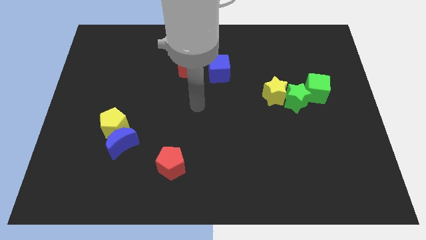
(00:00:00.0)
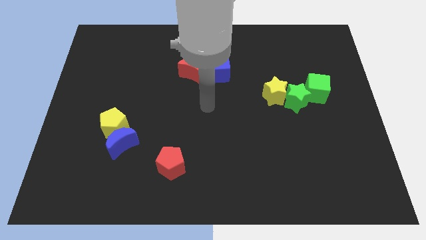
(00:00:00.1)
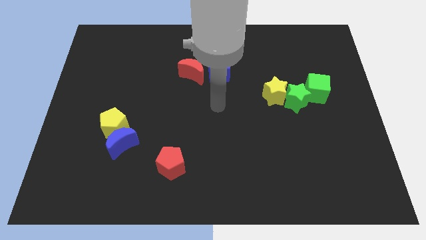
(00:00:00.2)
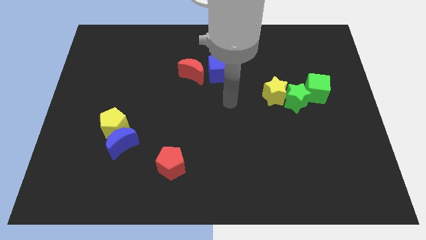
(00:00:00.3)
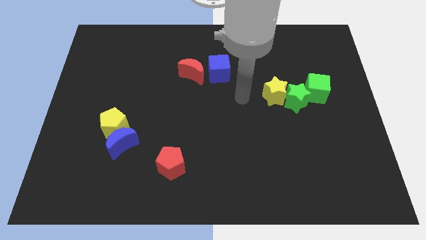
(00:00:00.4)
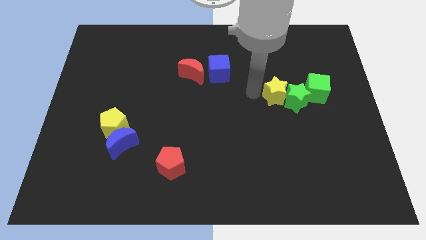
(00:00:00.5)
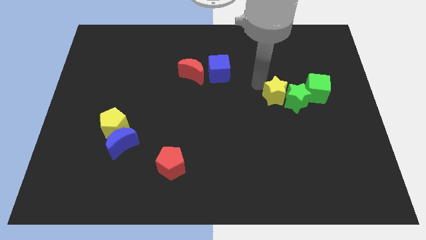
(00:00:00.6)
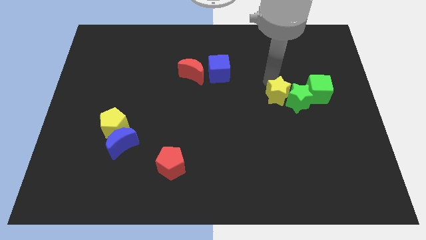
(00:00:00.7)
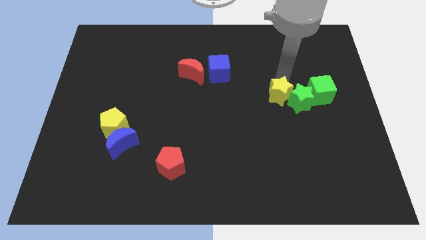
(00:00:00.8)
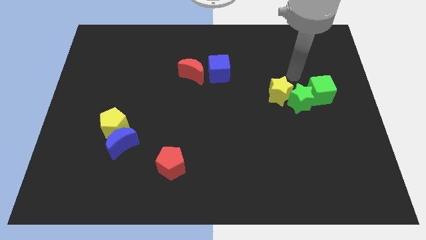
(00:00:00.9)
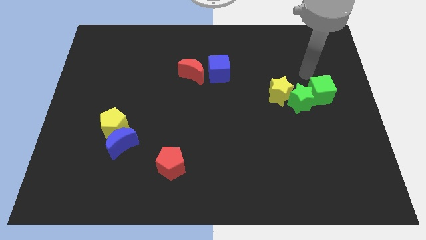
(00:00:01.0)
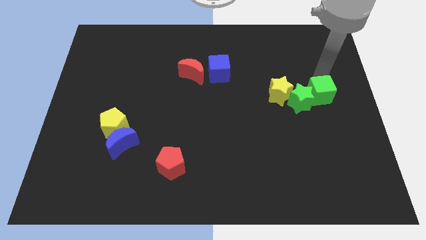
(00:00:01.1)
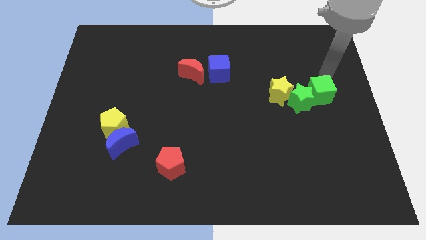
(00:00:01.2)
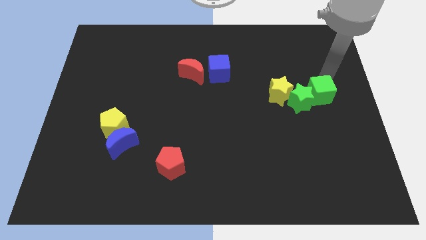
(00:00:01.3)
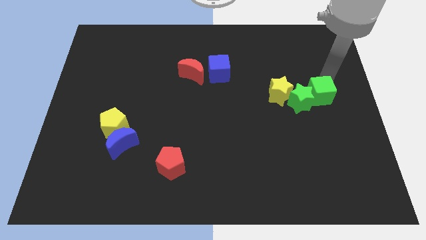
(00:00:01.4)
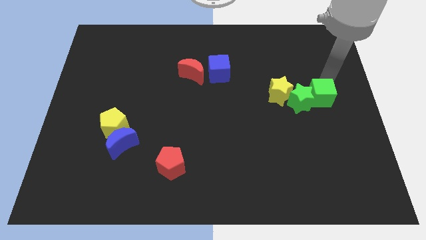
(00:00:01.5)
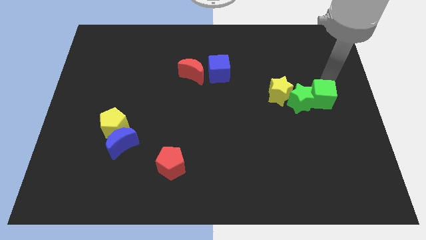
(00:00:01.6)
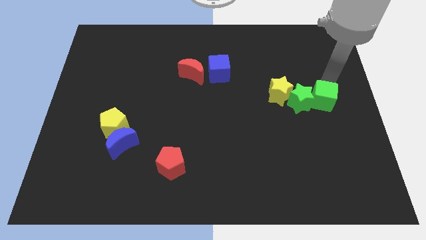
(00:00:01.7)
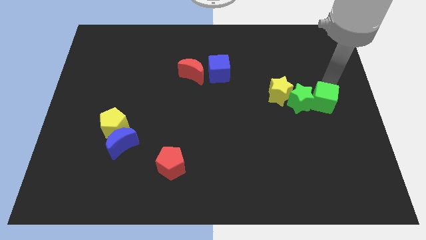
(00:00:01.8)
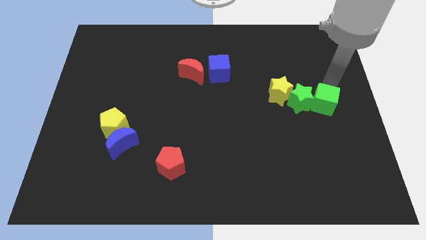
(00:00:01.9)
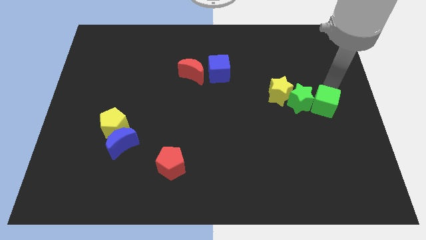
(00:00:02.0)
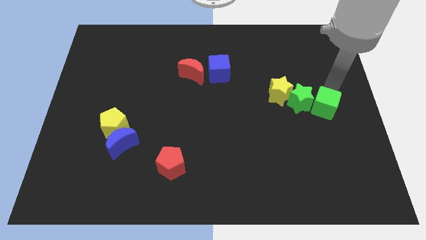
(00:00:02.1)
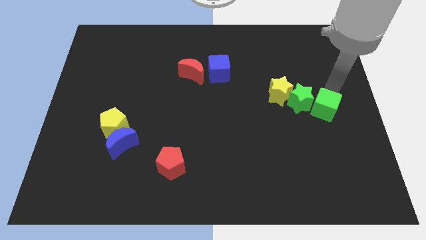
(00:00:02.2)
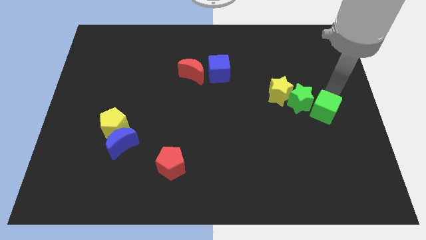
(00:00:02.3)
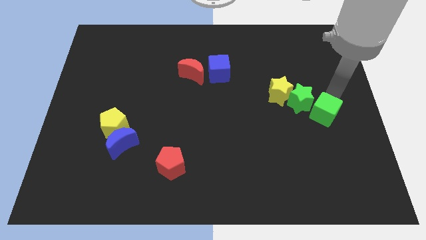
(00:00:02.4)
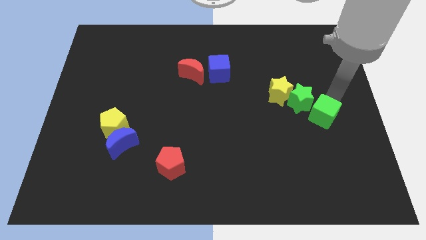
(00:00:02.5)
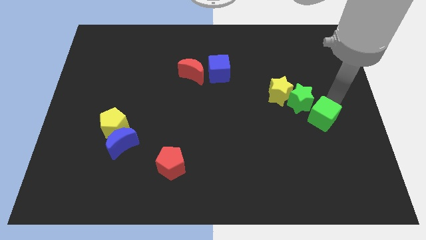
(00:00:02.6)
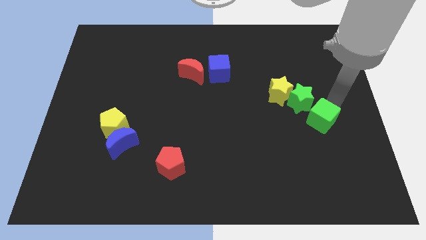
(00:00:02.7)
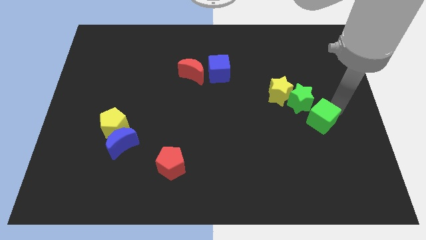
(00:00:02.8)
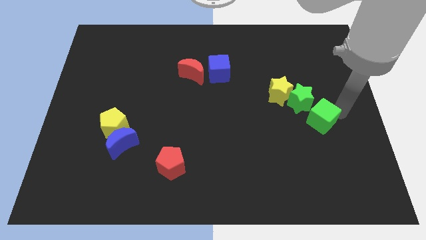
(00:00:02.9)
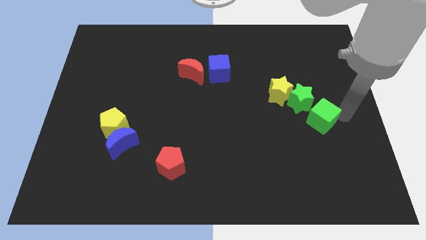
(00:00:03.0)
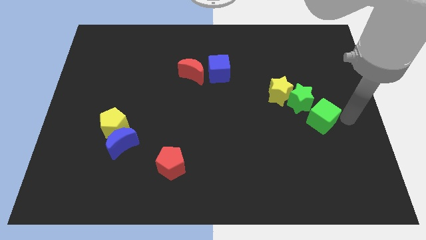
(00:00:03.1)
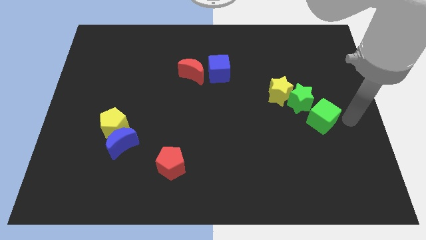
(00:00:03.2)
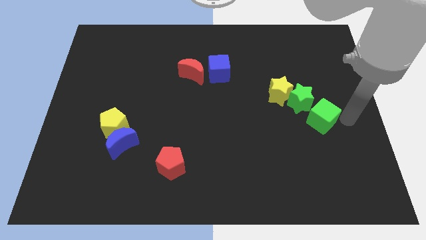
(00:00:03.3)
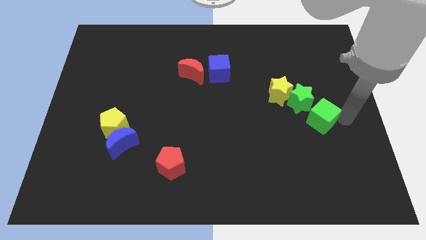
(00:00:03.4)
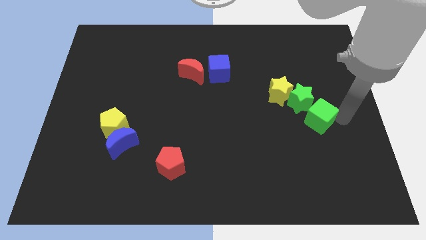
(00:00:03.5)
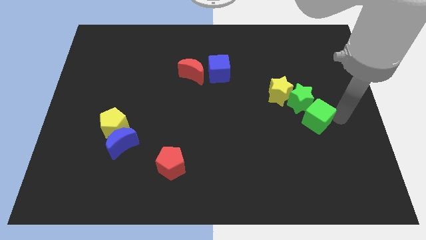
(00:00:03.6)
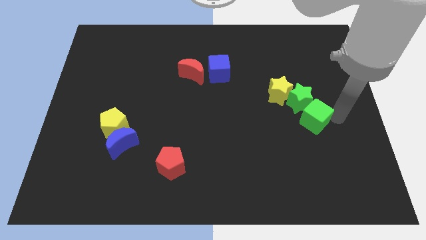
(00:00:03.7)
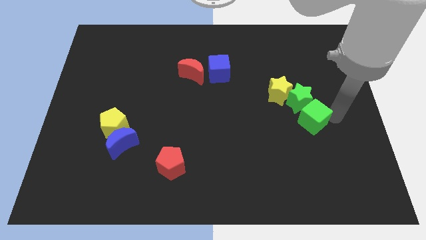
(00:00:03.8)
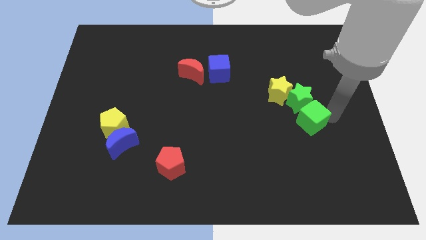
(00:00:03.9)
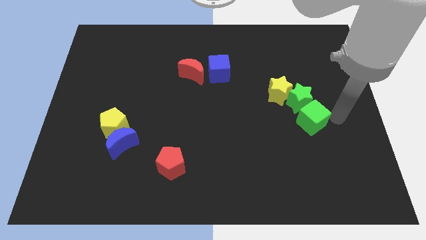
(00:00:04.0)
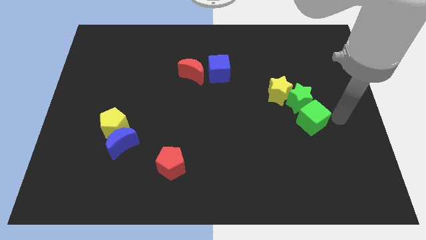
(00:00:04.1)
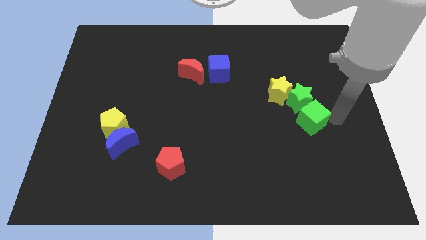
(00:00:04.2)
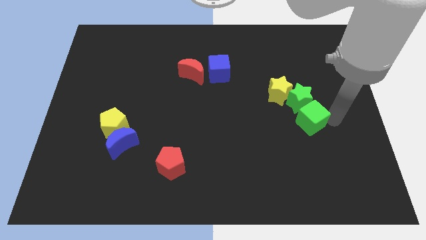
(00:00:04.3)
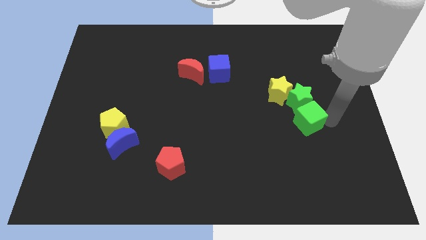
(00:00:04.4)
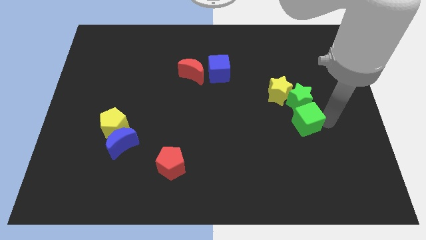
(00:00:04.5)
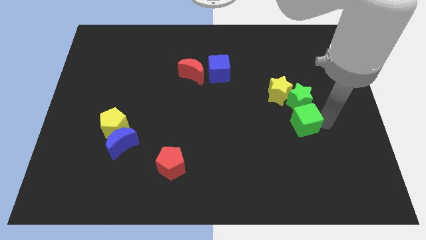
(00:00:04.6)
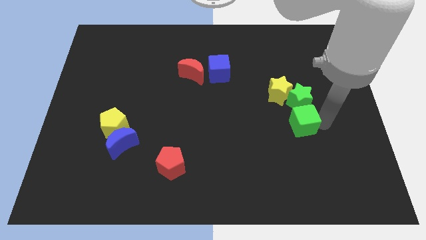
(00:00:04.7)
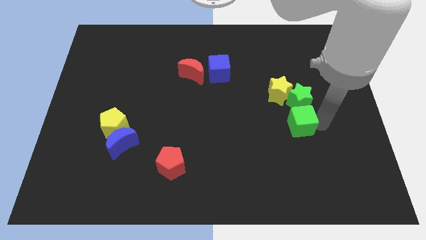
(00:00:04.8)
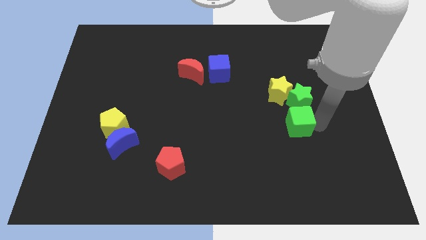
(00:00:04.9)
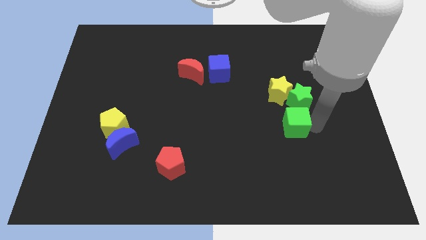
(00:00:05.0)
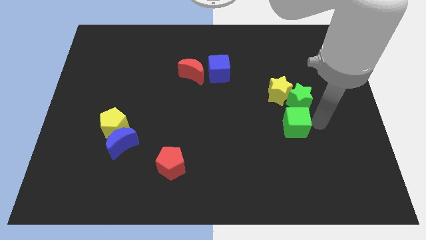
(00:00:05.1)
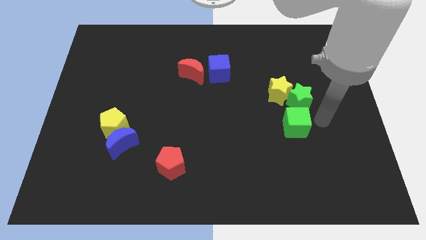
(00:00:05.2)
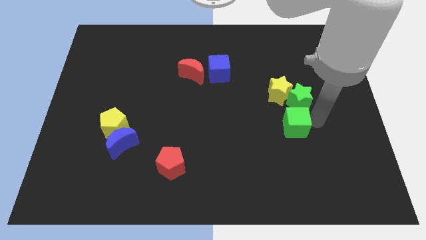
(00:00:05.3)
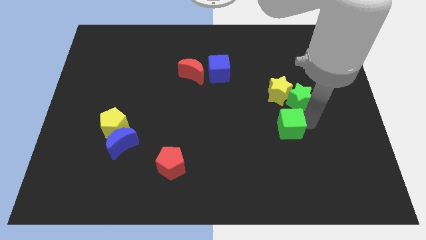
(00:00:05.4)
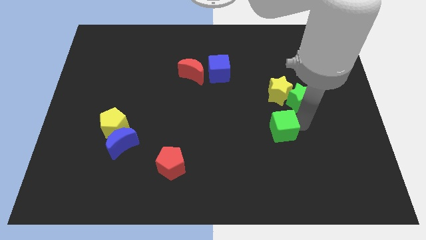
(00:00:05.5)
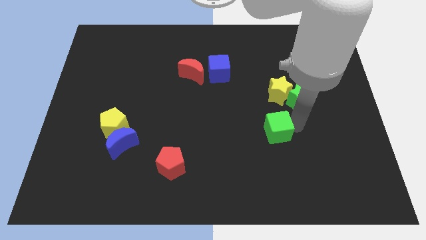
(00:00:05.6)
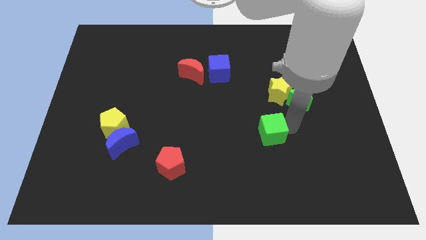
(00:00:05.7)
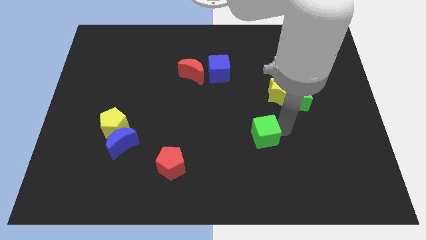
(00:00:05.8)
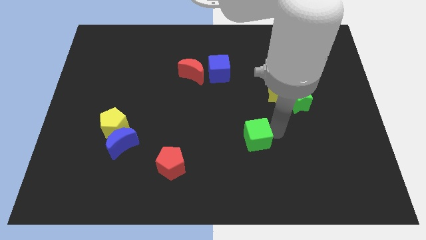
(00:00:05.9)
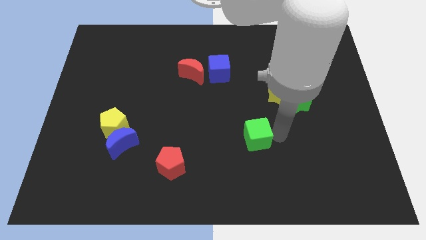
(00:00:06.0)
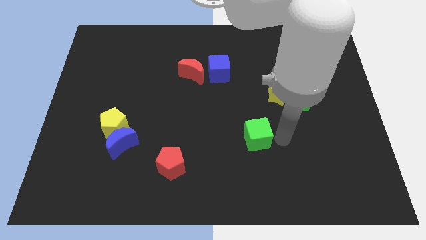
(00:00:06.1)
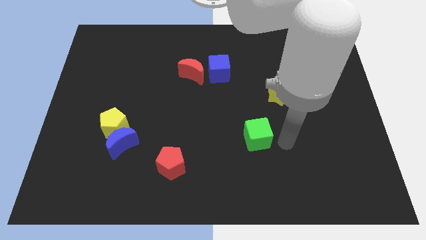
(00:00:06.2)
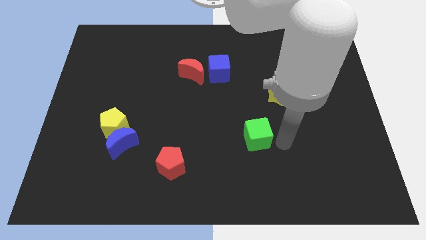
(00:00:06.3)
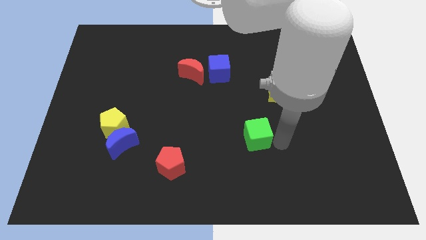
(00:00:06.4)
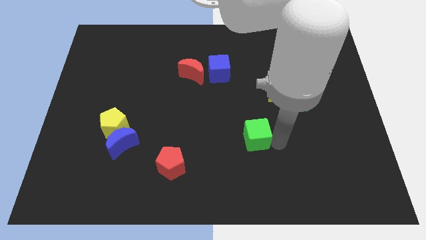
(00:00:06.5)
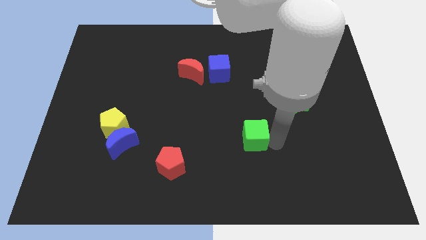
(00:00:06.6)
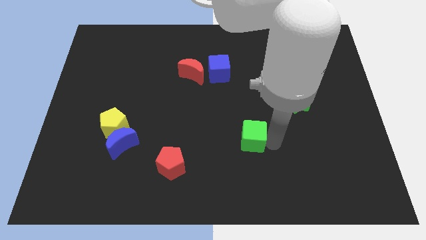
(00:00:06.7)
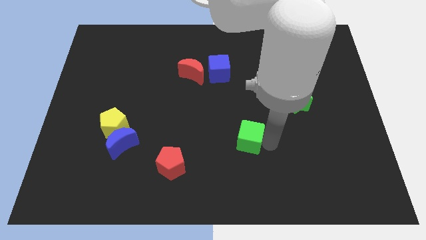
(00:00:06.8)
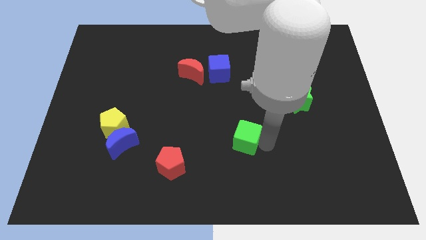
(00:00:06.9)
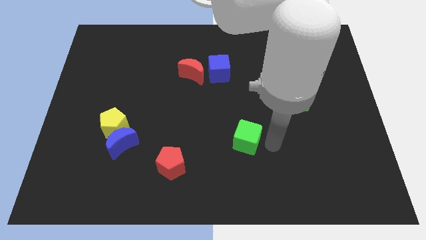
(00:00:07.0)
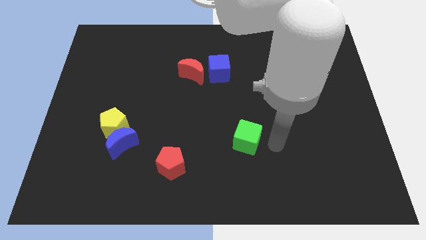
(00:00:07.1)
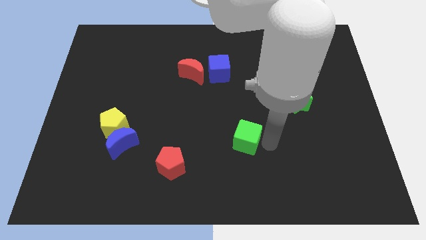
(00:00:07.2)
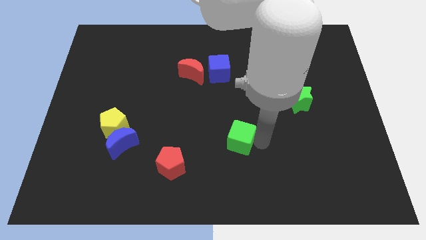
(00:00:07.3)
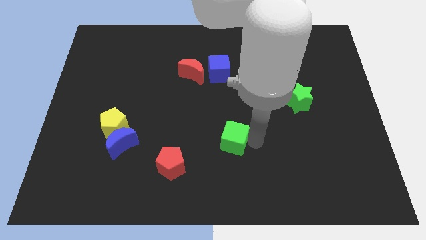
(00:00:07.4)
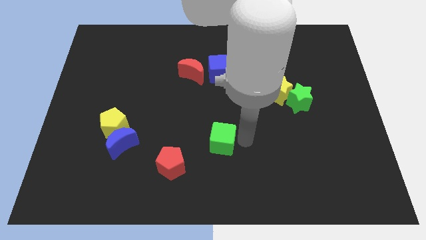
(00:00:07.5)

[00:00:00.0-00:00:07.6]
move the green cube diagonally up and to the right of the red pentagon
